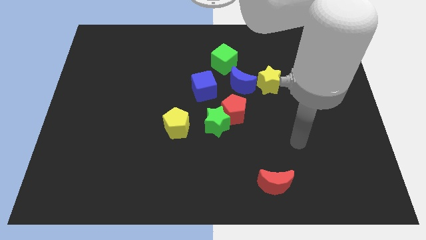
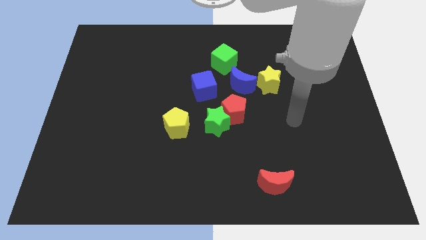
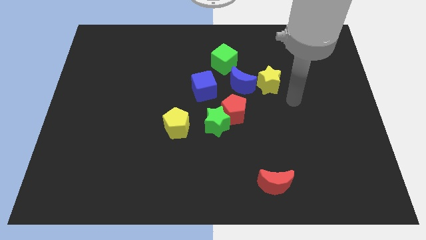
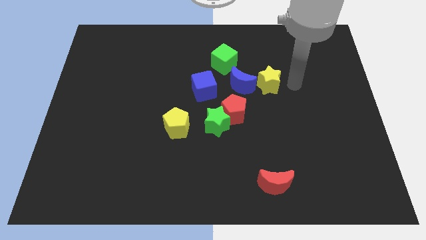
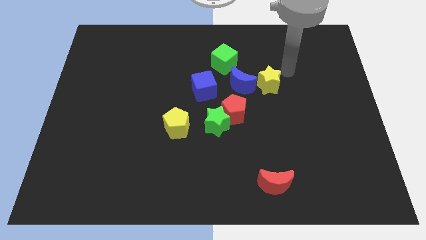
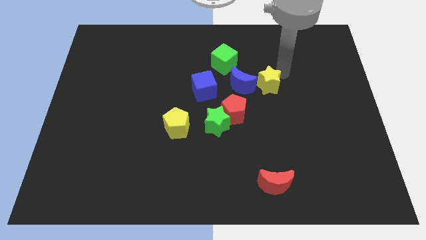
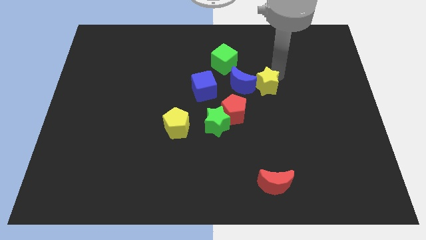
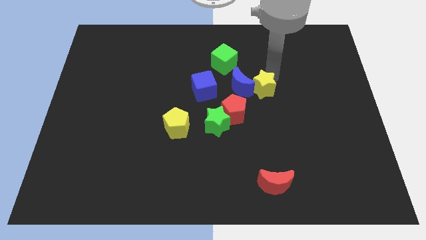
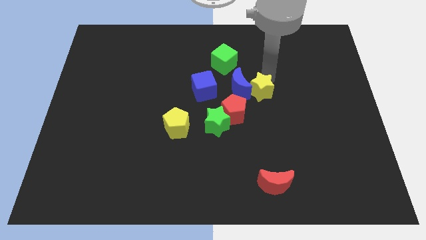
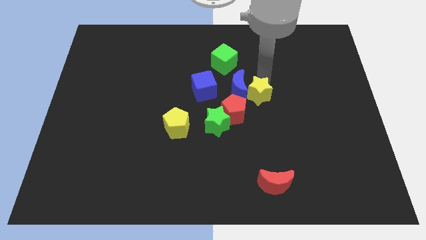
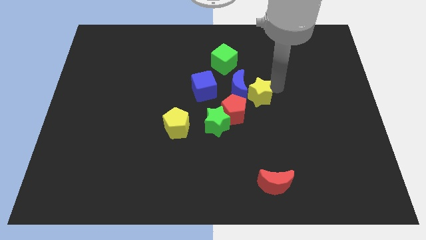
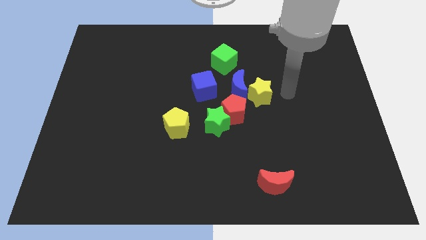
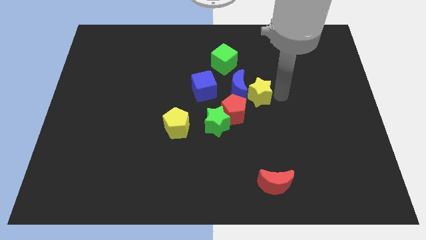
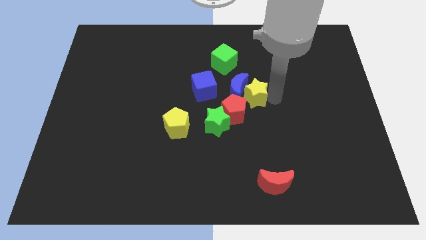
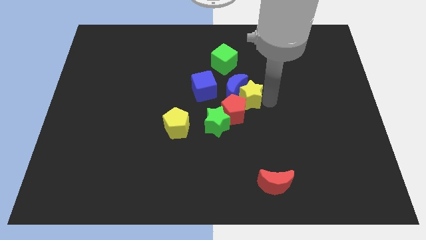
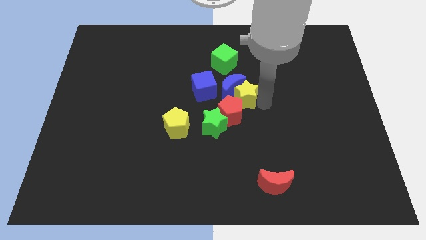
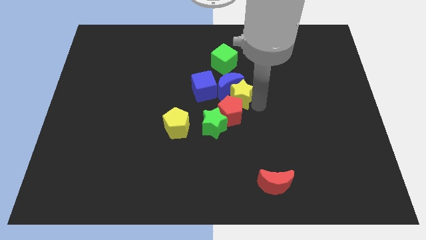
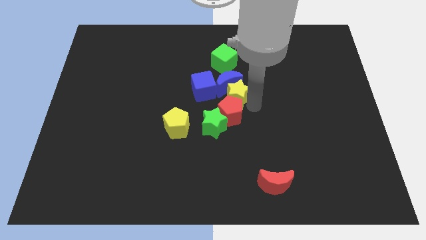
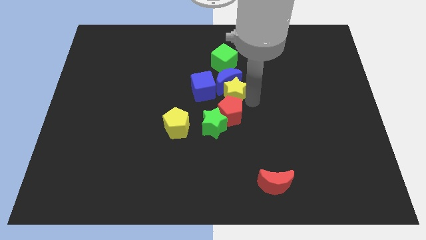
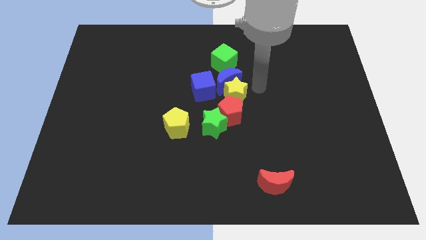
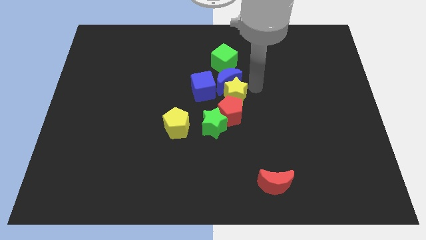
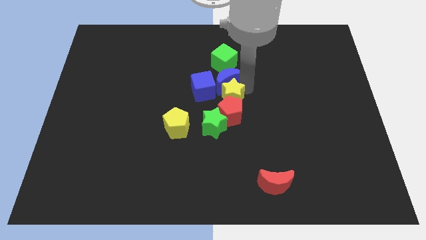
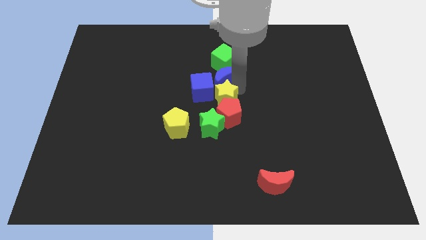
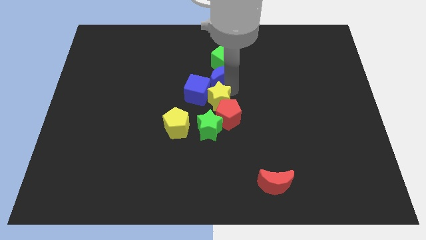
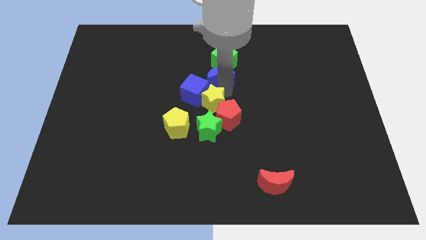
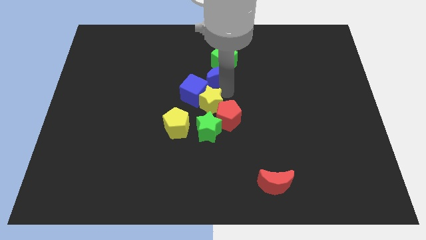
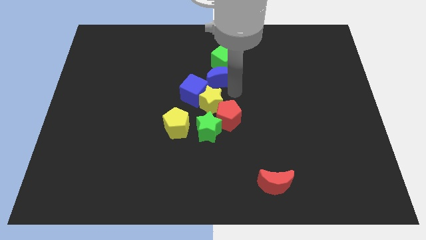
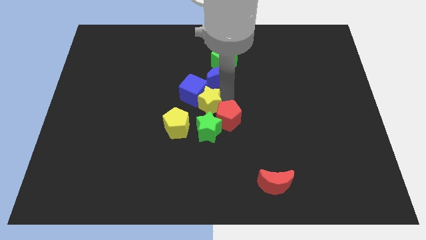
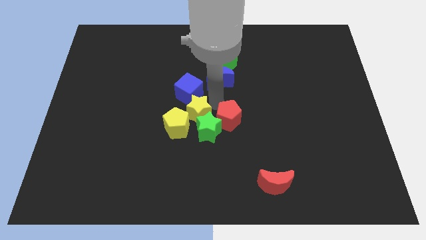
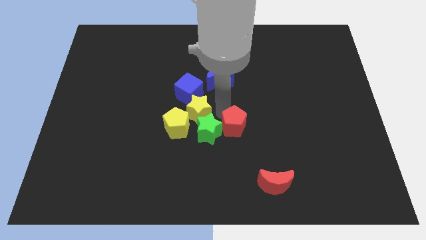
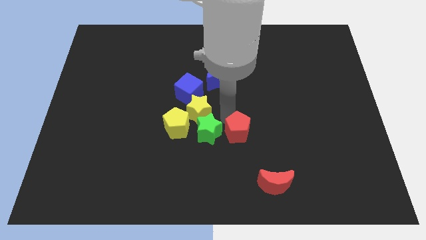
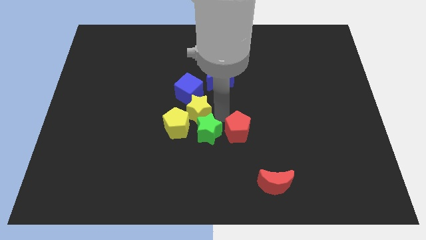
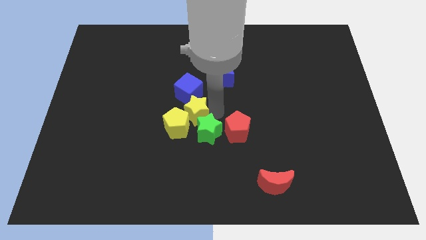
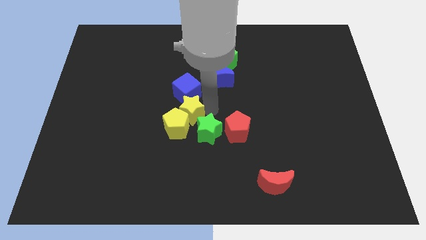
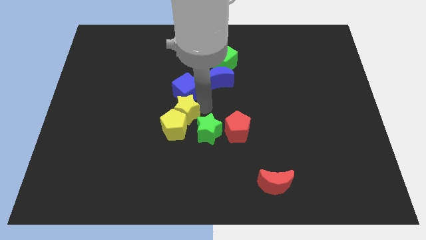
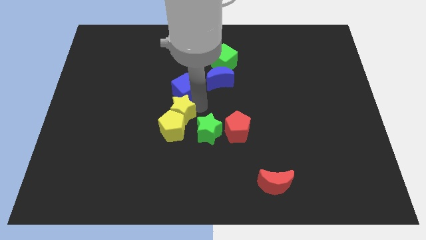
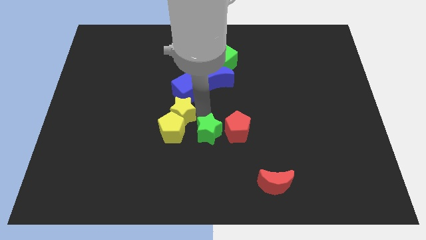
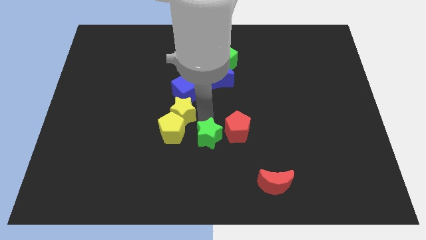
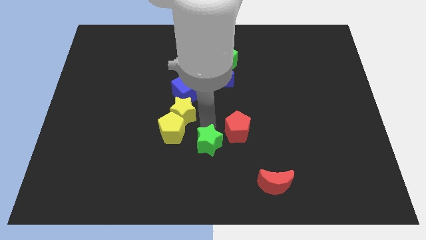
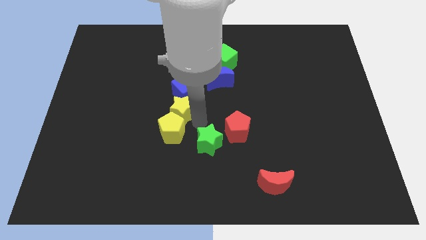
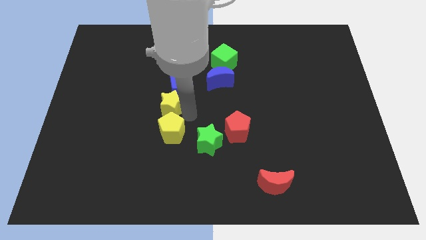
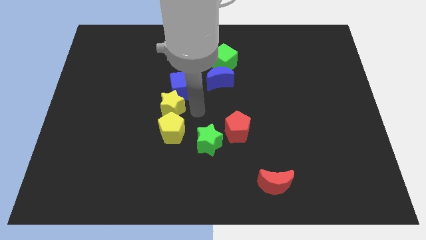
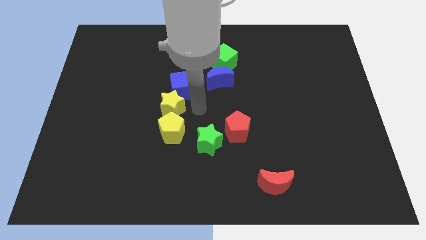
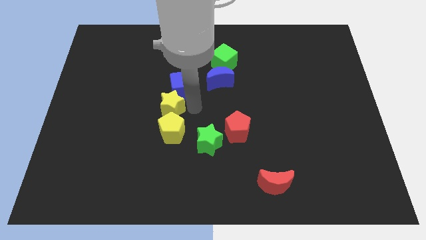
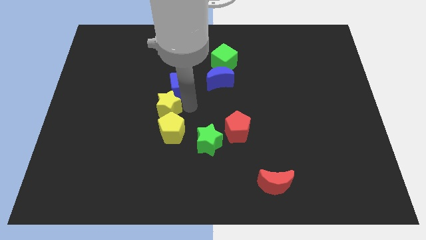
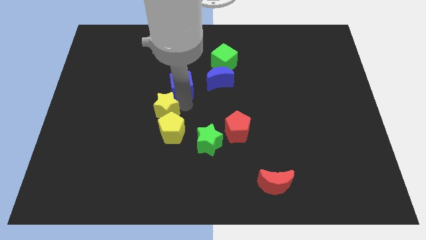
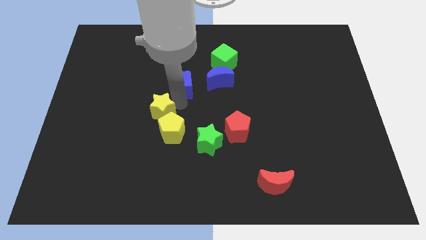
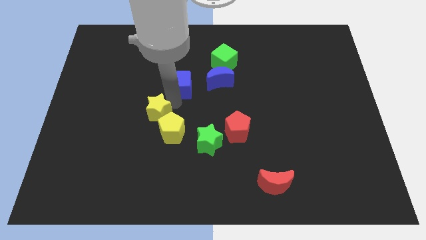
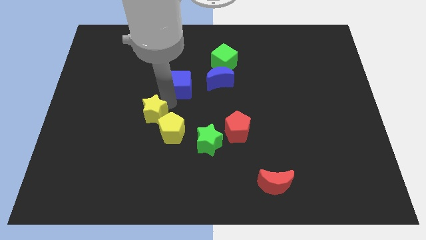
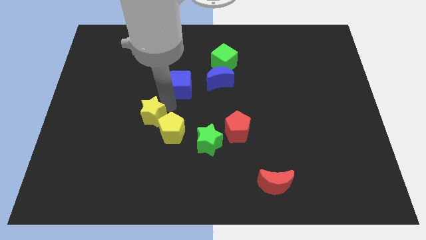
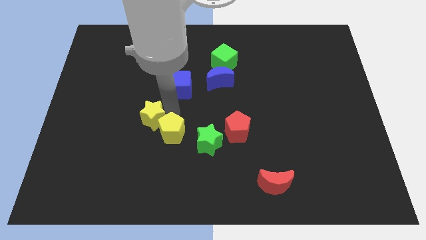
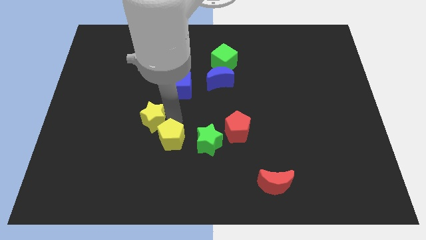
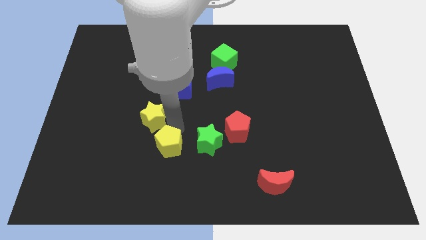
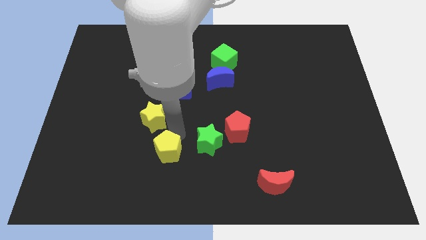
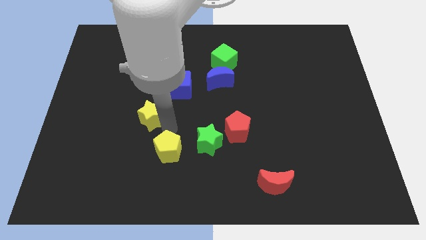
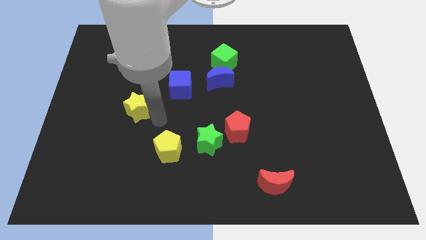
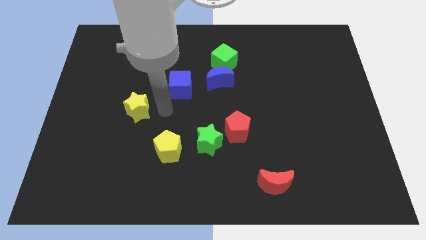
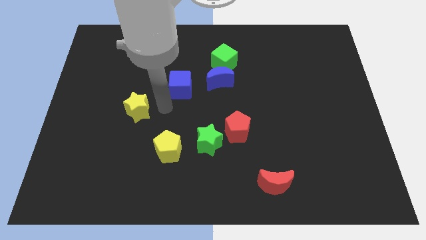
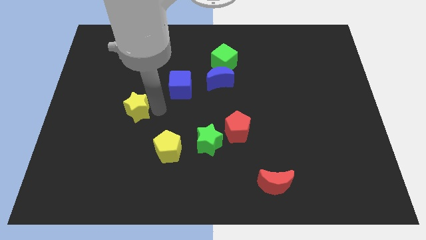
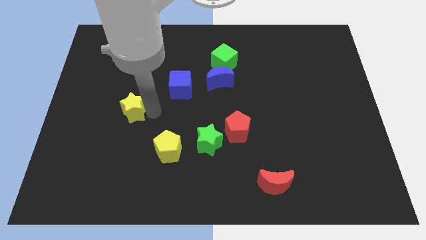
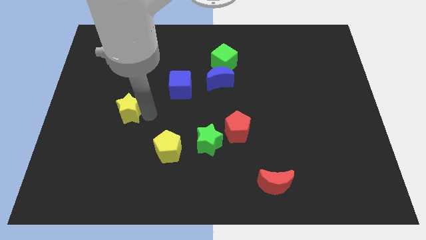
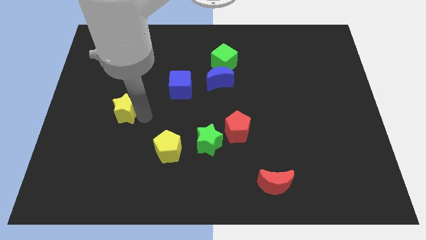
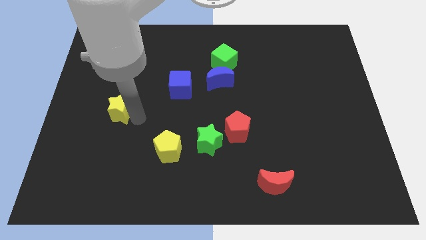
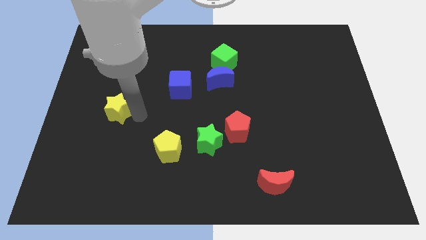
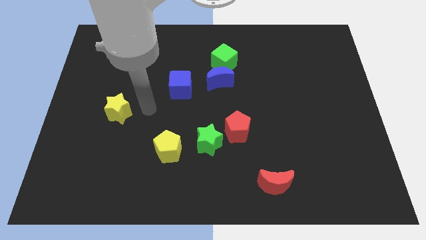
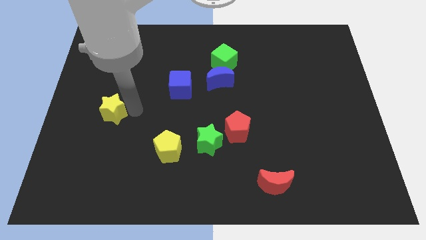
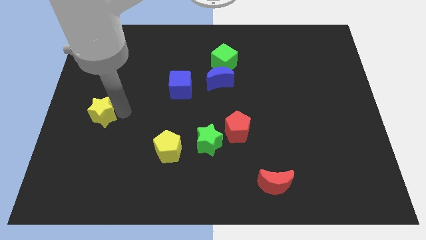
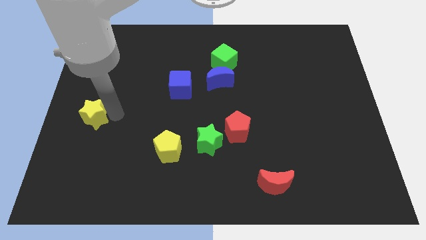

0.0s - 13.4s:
push the yellow star to the center left

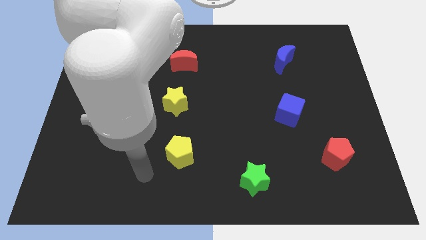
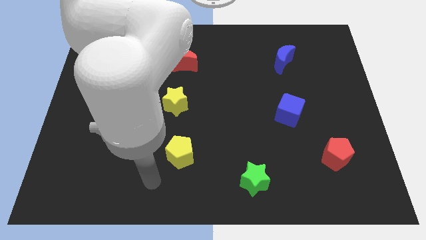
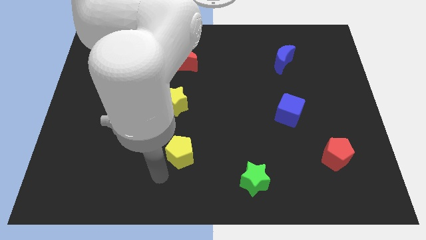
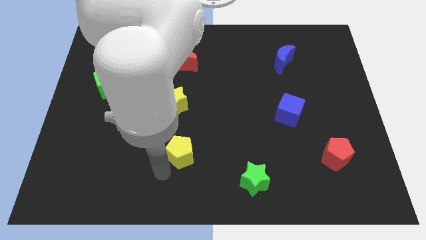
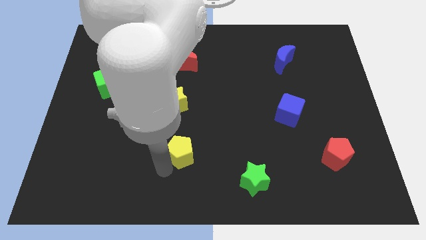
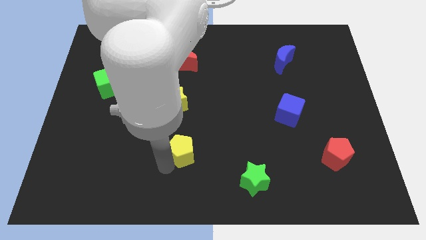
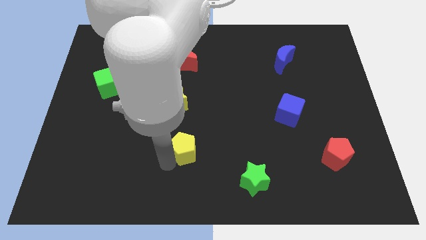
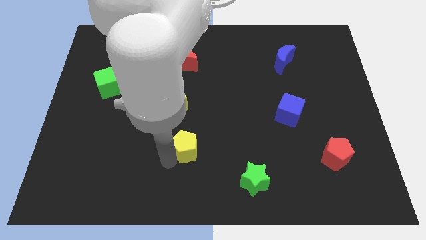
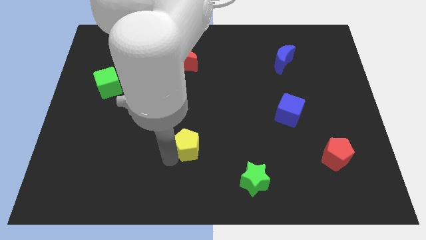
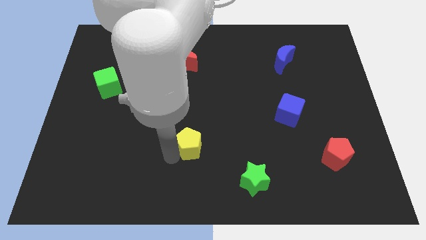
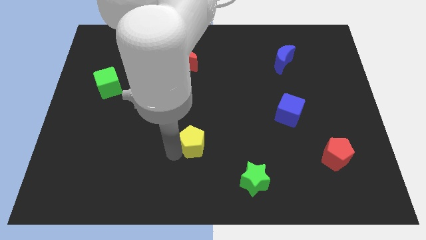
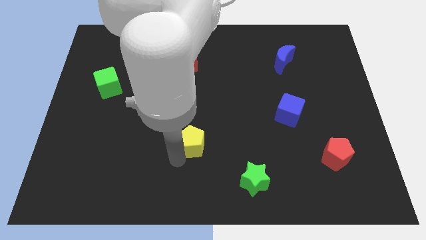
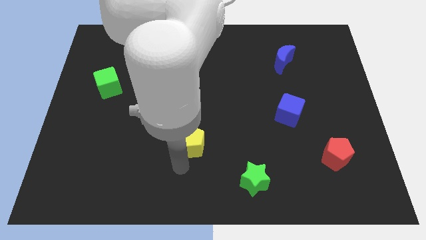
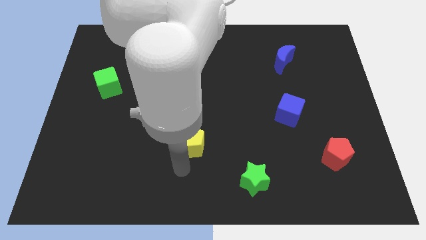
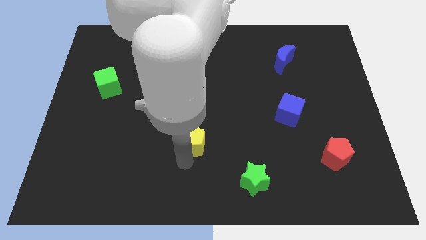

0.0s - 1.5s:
push the yellow pentagon to the center of the board
